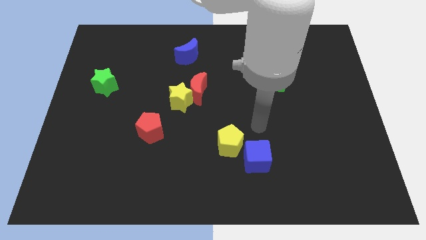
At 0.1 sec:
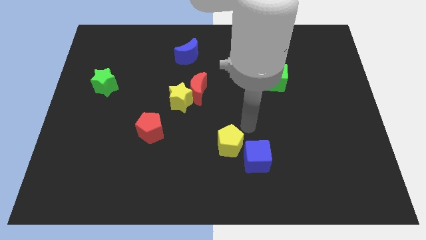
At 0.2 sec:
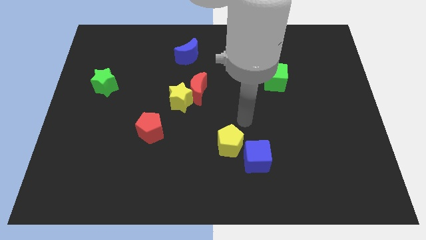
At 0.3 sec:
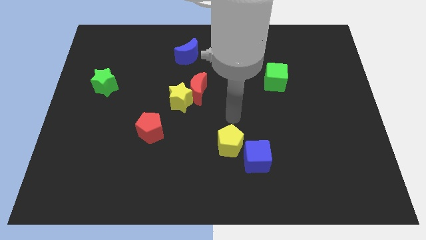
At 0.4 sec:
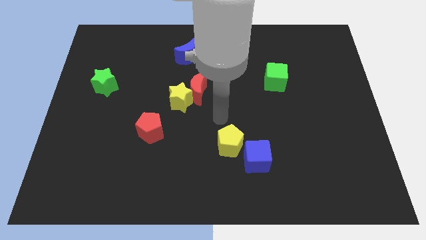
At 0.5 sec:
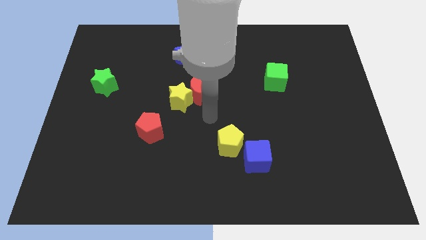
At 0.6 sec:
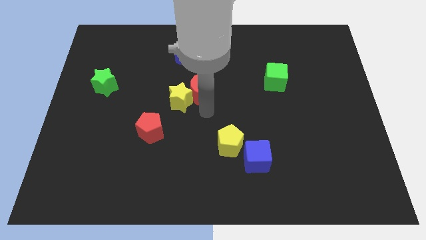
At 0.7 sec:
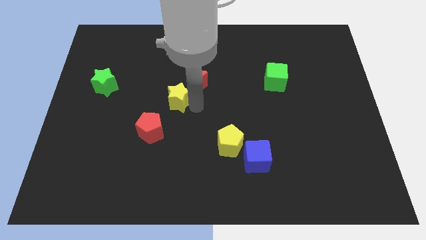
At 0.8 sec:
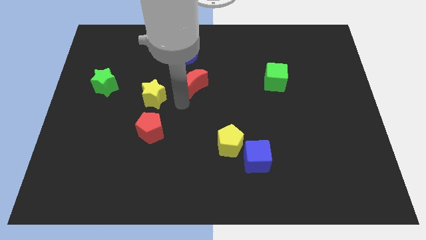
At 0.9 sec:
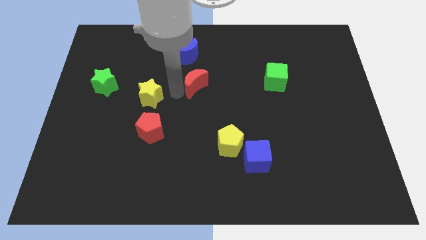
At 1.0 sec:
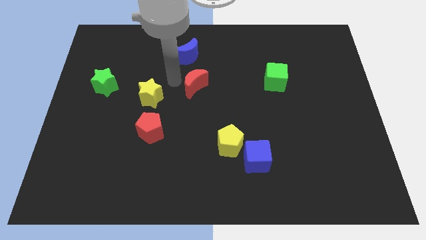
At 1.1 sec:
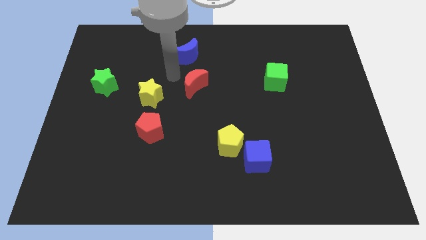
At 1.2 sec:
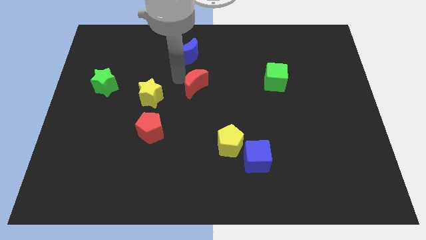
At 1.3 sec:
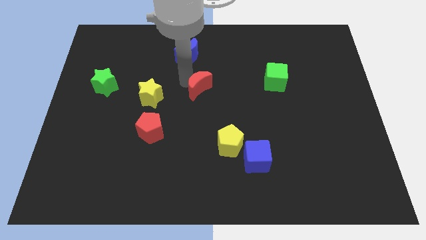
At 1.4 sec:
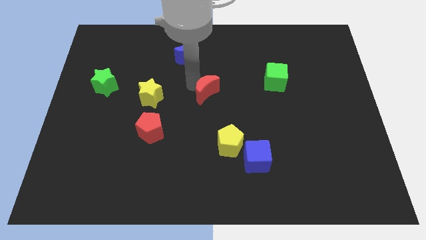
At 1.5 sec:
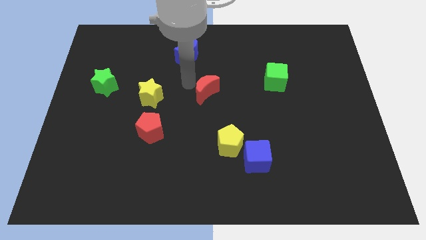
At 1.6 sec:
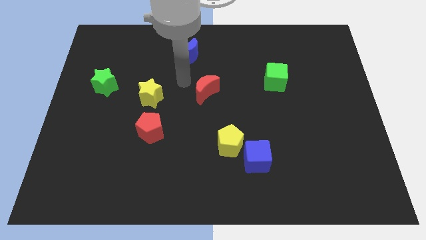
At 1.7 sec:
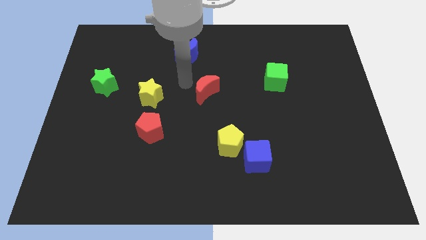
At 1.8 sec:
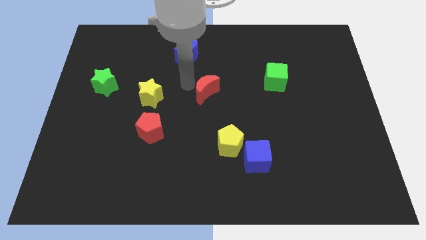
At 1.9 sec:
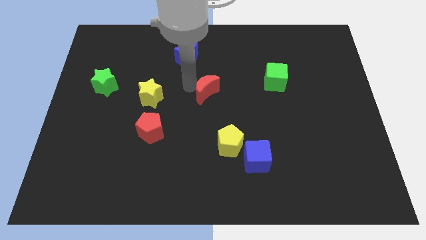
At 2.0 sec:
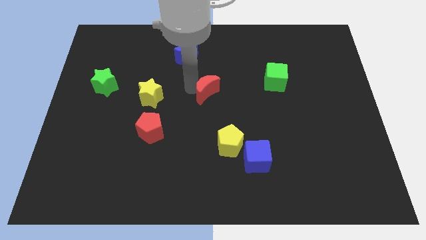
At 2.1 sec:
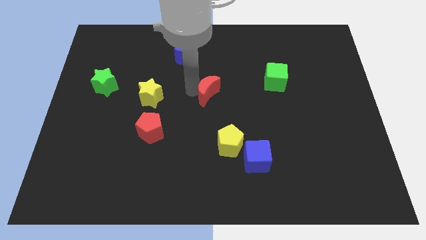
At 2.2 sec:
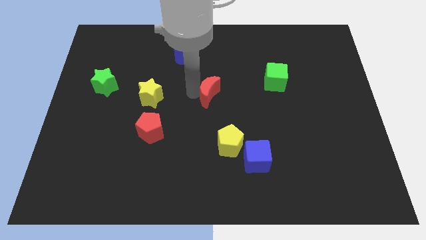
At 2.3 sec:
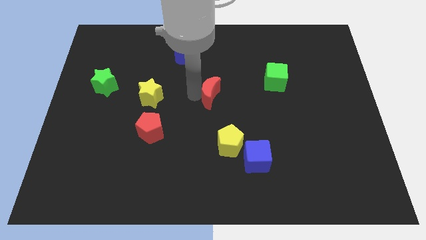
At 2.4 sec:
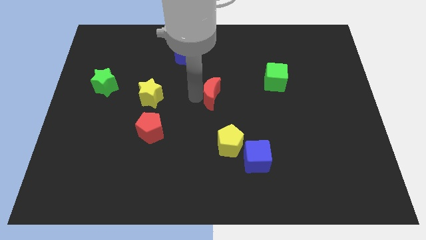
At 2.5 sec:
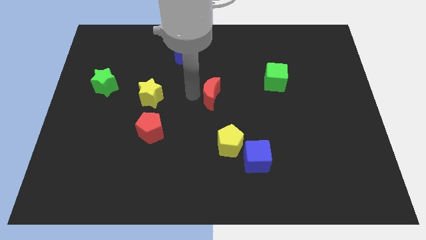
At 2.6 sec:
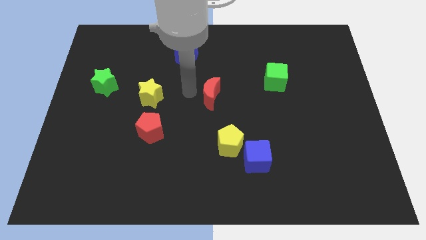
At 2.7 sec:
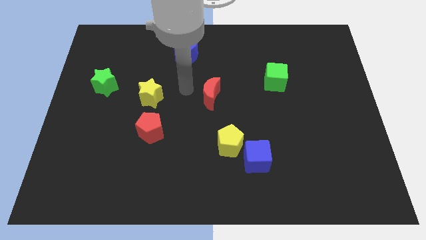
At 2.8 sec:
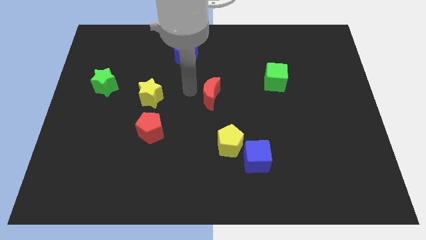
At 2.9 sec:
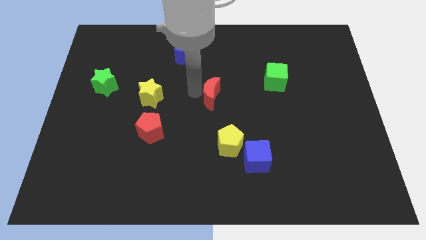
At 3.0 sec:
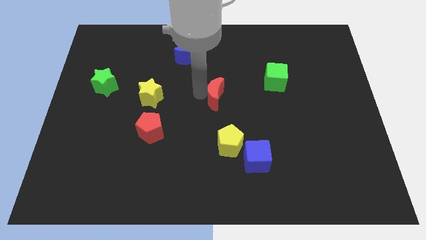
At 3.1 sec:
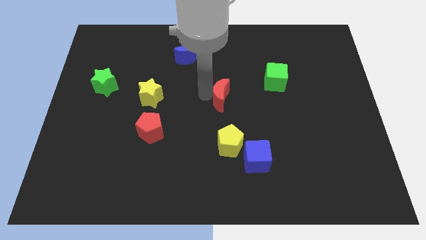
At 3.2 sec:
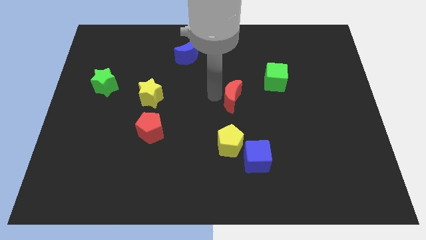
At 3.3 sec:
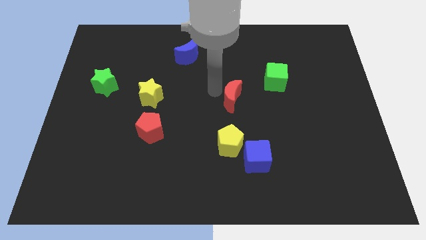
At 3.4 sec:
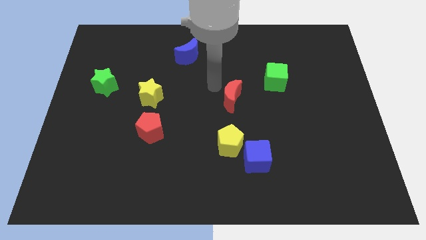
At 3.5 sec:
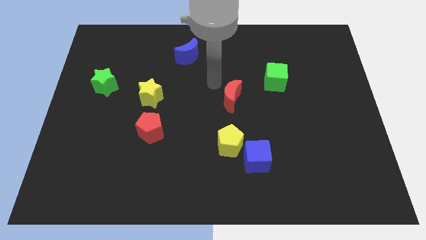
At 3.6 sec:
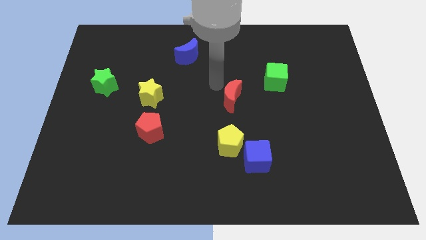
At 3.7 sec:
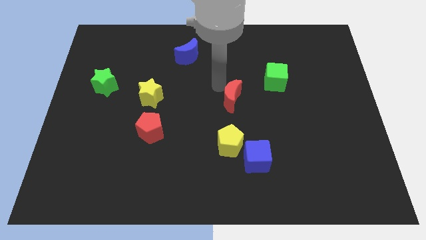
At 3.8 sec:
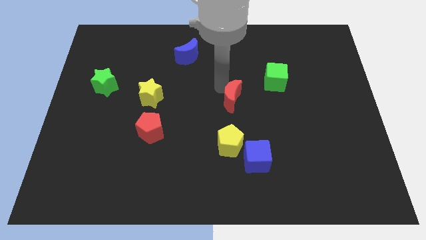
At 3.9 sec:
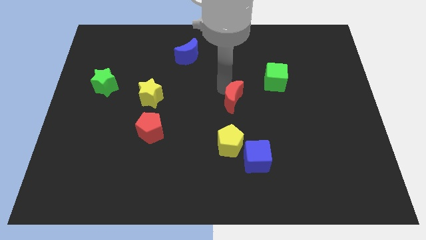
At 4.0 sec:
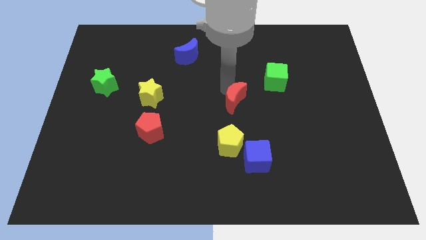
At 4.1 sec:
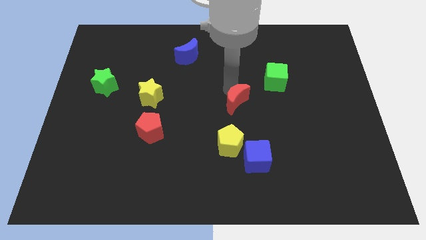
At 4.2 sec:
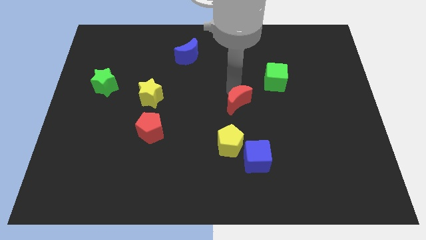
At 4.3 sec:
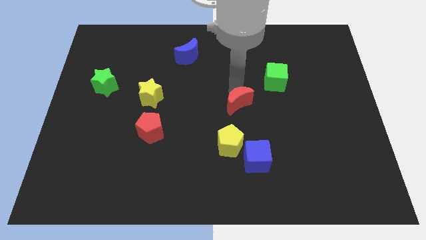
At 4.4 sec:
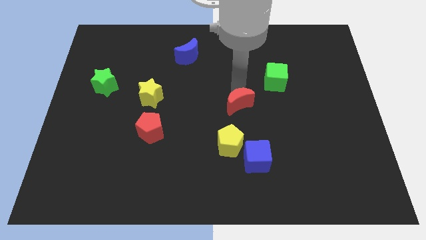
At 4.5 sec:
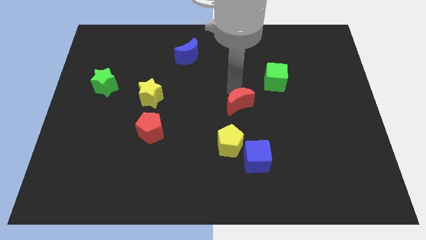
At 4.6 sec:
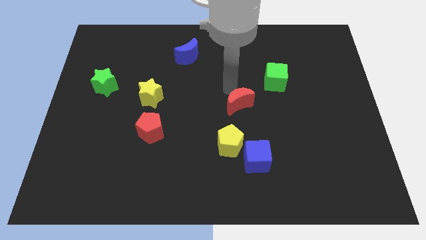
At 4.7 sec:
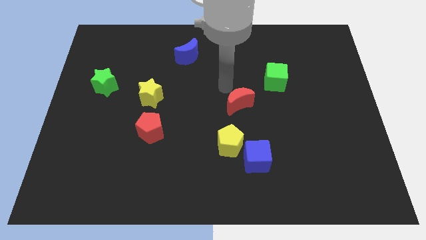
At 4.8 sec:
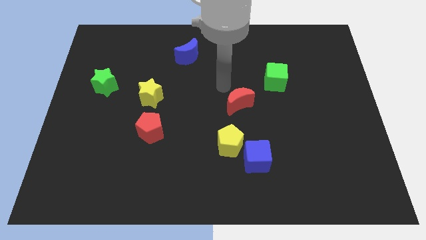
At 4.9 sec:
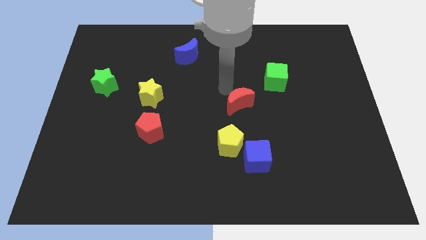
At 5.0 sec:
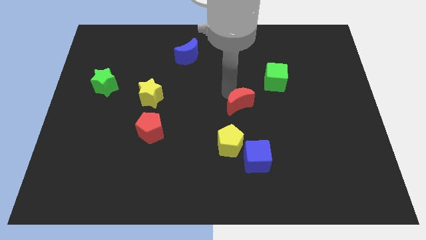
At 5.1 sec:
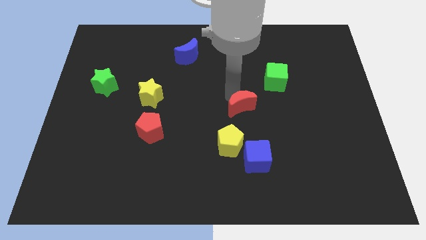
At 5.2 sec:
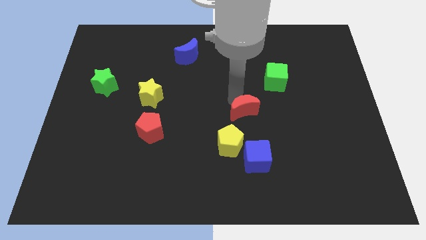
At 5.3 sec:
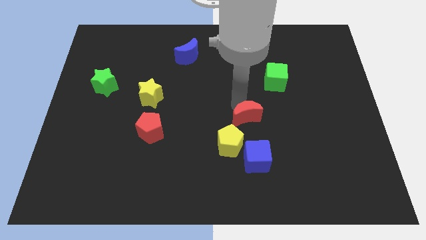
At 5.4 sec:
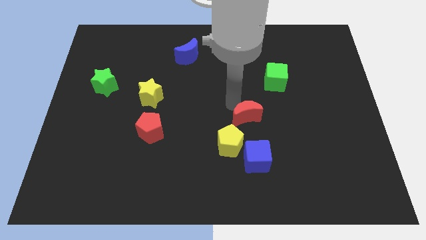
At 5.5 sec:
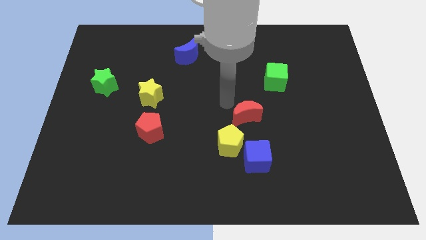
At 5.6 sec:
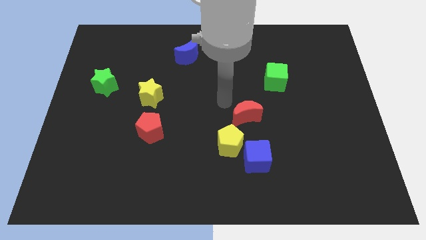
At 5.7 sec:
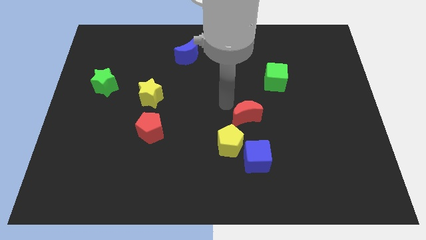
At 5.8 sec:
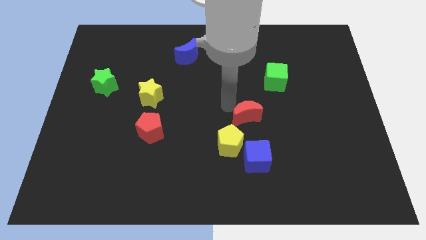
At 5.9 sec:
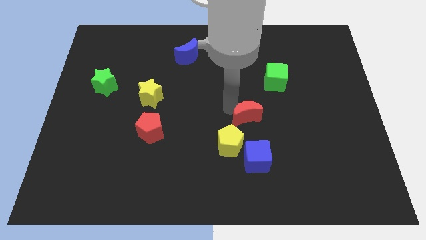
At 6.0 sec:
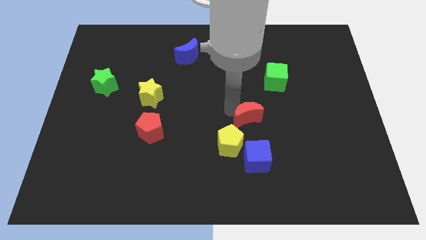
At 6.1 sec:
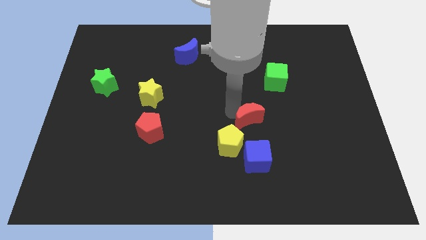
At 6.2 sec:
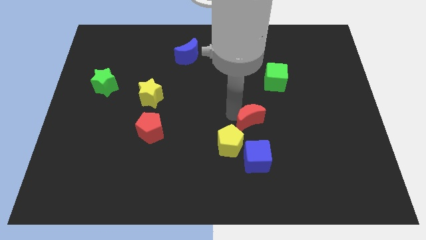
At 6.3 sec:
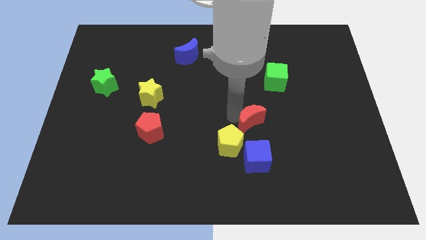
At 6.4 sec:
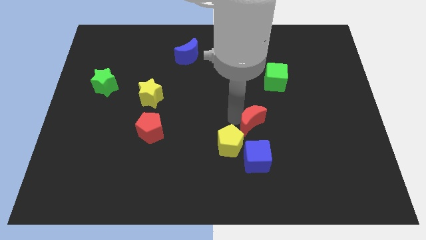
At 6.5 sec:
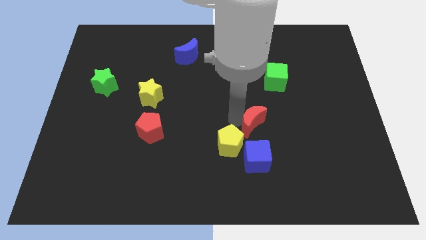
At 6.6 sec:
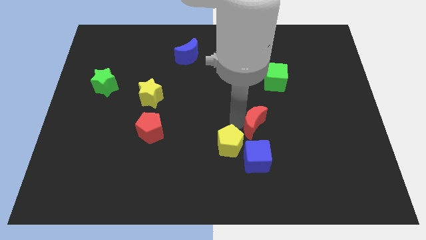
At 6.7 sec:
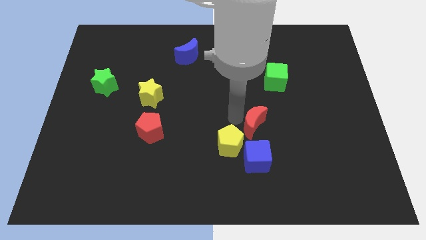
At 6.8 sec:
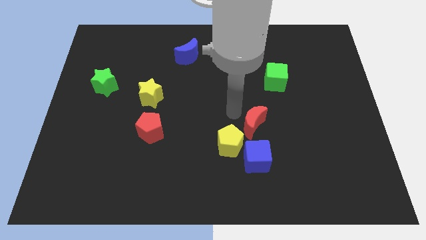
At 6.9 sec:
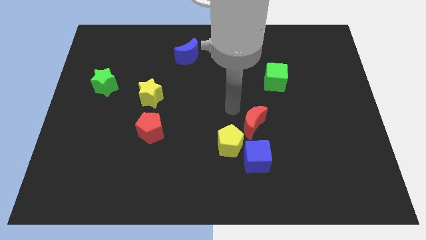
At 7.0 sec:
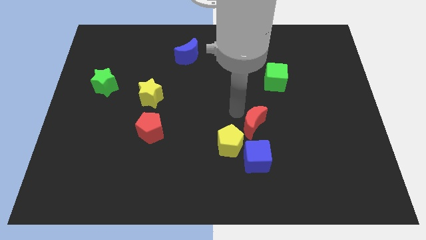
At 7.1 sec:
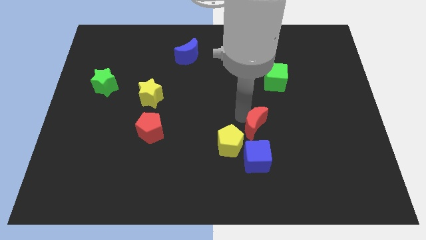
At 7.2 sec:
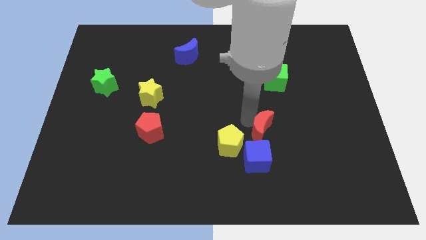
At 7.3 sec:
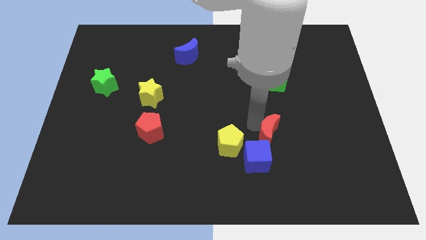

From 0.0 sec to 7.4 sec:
push the red moon down and then right

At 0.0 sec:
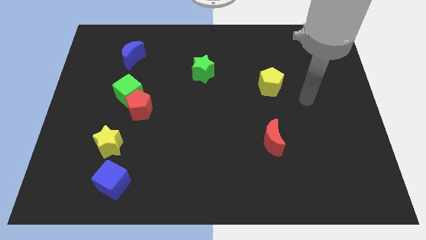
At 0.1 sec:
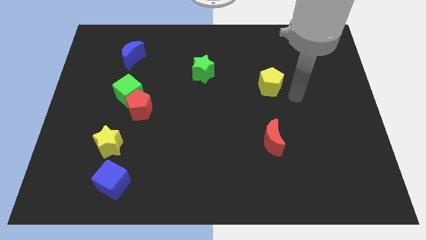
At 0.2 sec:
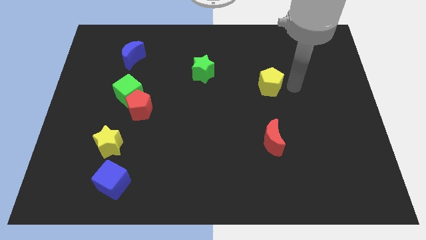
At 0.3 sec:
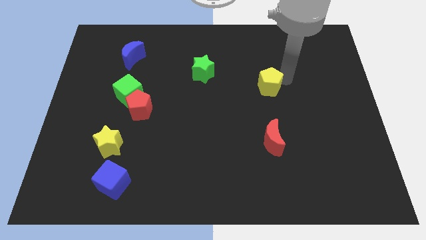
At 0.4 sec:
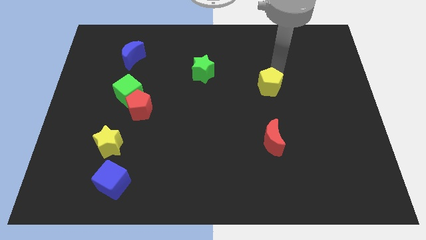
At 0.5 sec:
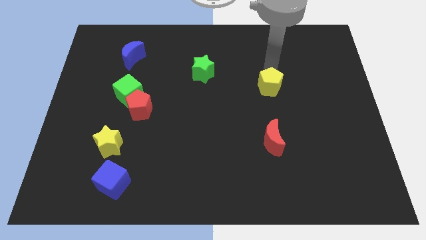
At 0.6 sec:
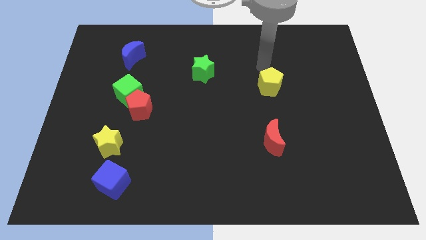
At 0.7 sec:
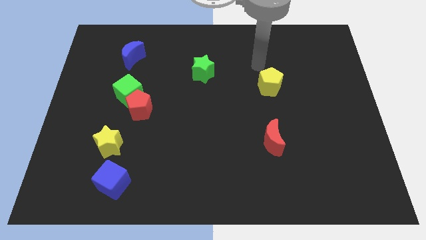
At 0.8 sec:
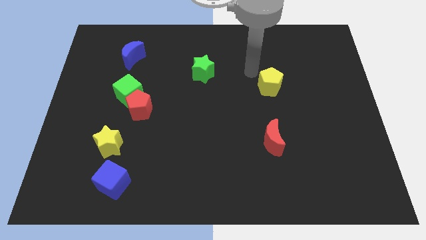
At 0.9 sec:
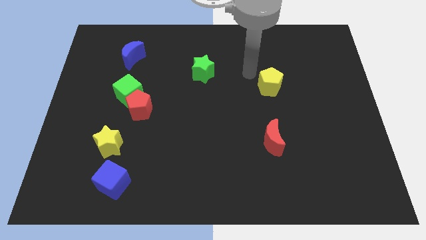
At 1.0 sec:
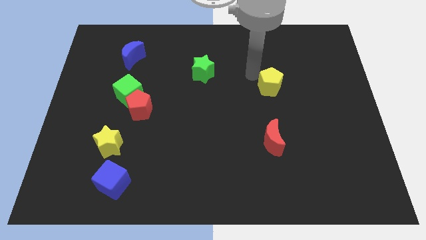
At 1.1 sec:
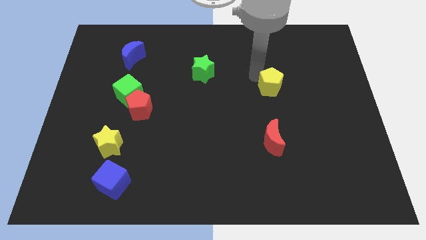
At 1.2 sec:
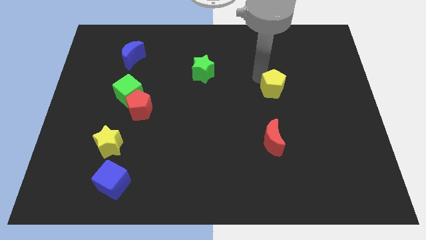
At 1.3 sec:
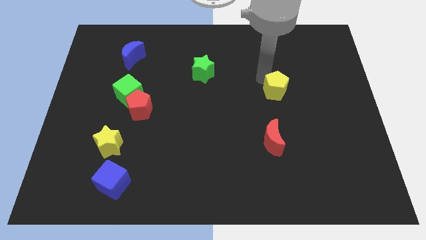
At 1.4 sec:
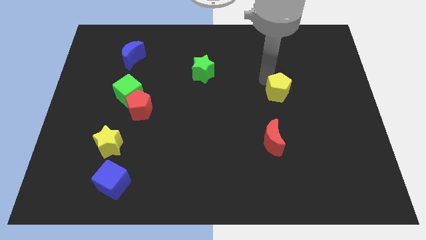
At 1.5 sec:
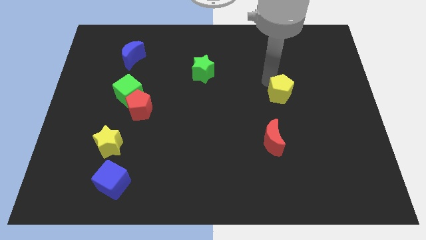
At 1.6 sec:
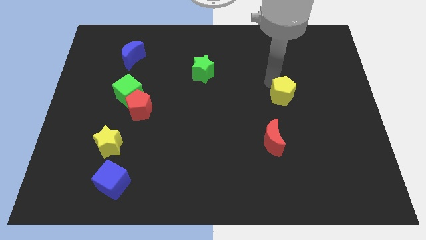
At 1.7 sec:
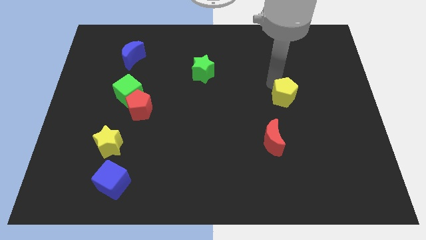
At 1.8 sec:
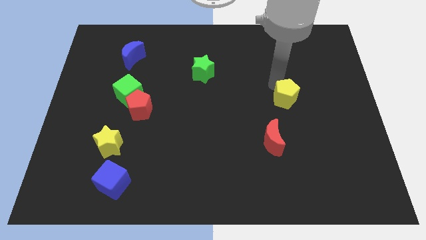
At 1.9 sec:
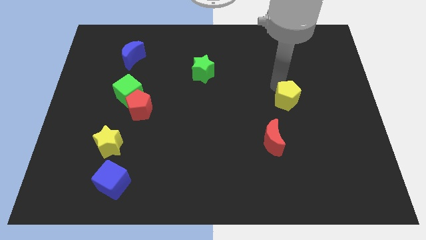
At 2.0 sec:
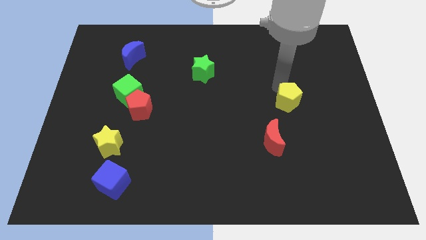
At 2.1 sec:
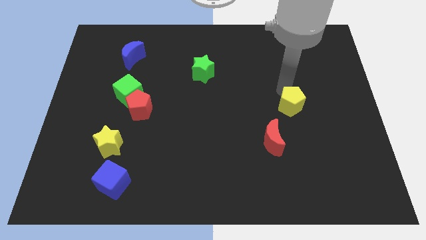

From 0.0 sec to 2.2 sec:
push the yellow pentagon slightly diagonally down and right
